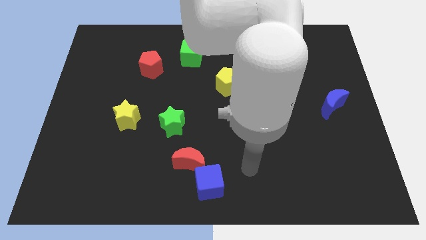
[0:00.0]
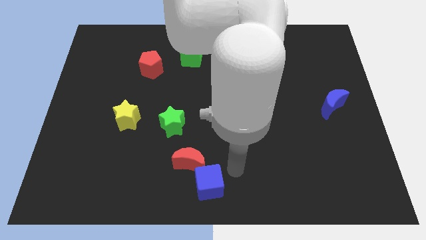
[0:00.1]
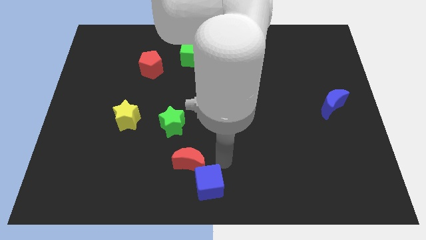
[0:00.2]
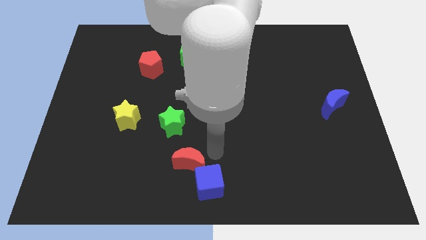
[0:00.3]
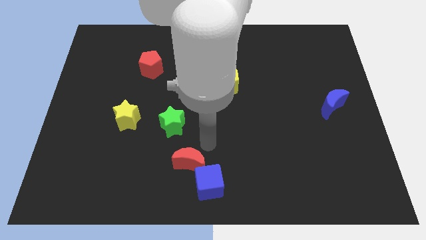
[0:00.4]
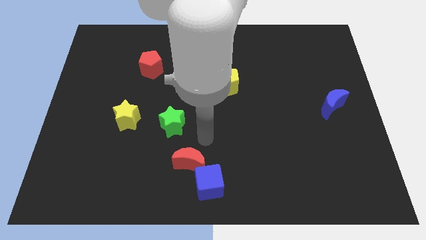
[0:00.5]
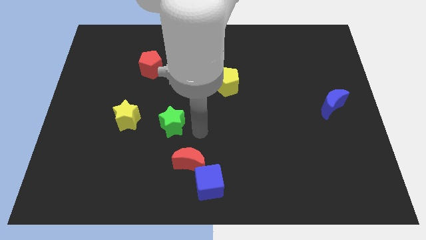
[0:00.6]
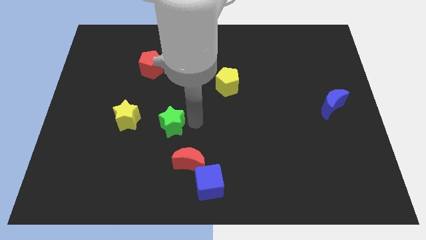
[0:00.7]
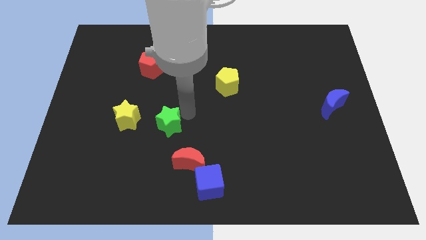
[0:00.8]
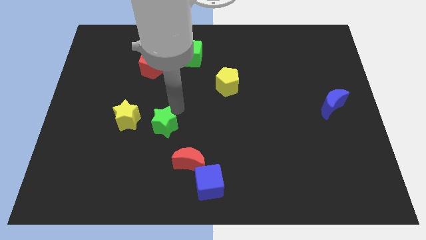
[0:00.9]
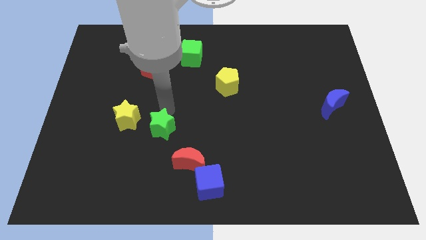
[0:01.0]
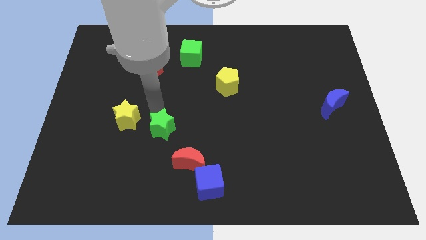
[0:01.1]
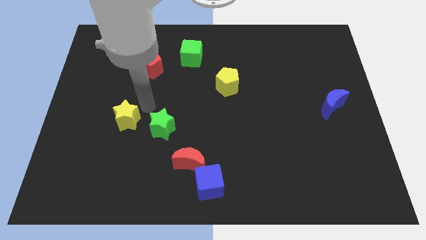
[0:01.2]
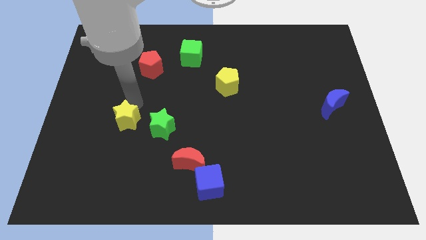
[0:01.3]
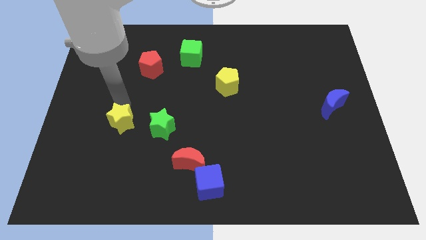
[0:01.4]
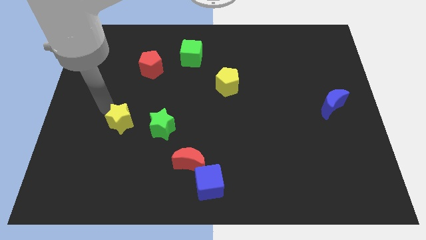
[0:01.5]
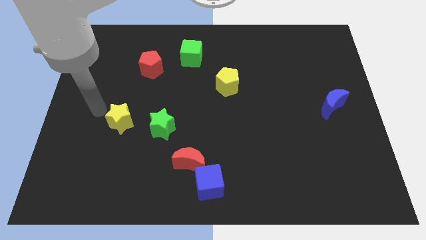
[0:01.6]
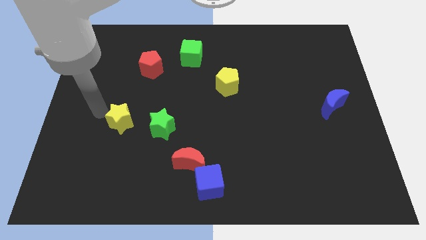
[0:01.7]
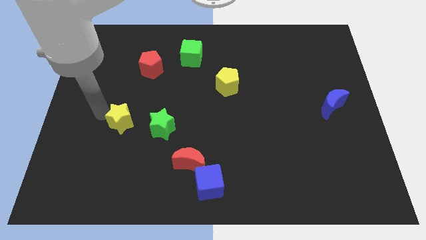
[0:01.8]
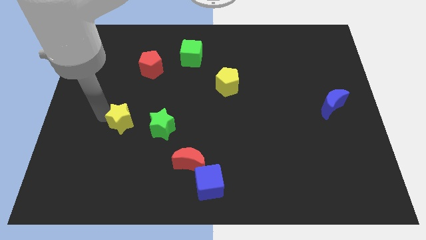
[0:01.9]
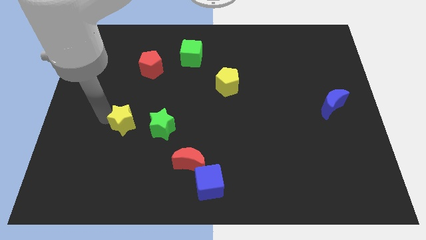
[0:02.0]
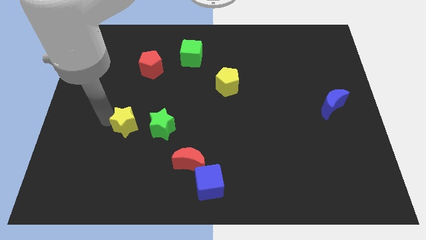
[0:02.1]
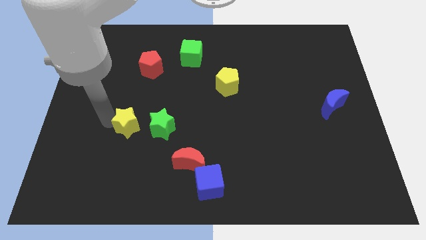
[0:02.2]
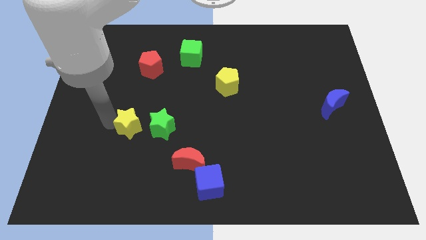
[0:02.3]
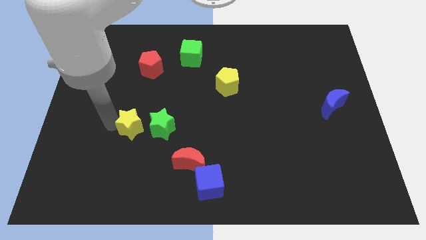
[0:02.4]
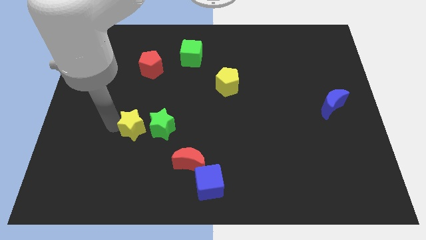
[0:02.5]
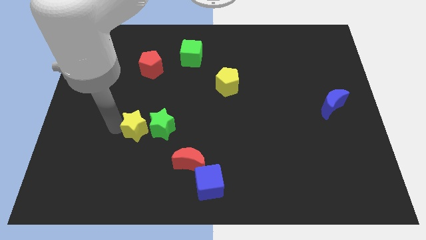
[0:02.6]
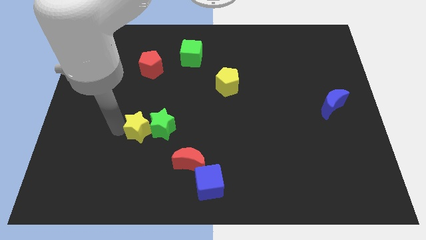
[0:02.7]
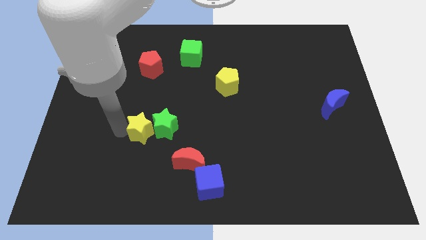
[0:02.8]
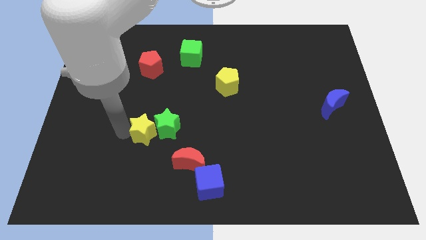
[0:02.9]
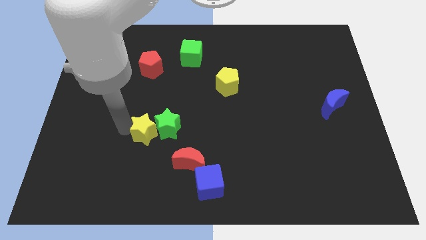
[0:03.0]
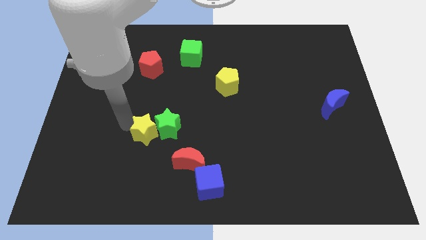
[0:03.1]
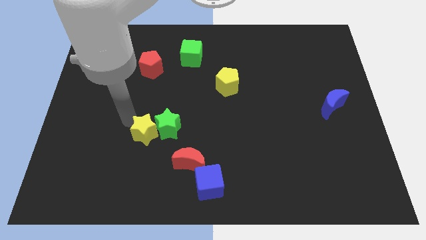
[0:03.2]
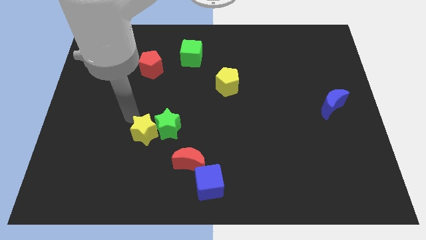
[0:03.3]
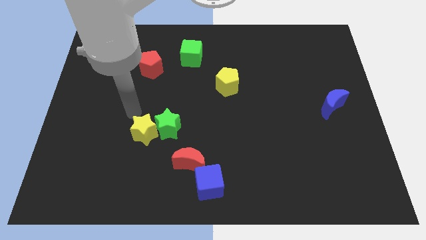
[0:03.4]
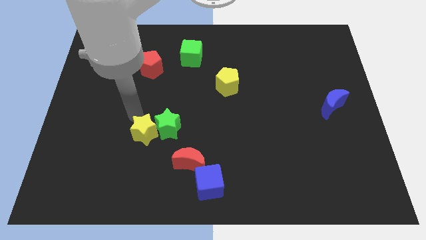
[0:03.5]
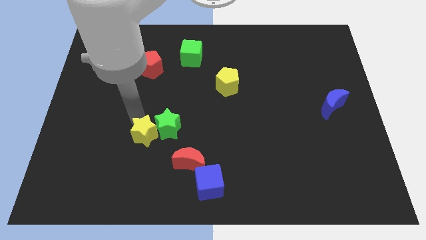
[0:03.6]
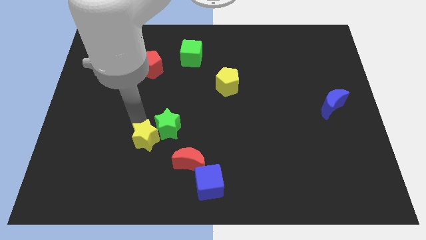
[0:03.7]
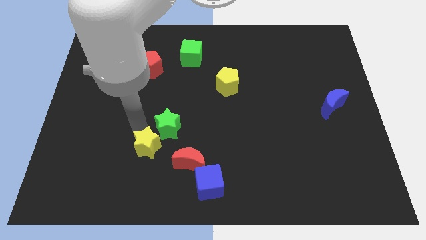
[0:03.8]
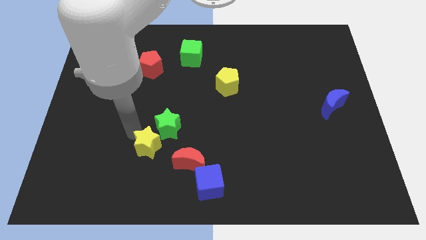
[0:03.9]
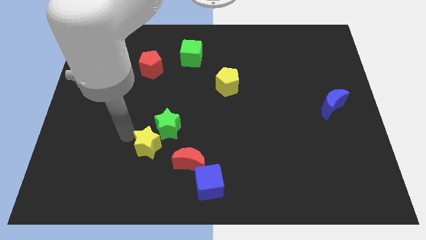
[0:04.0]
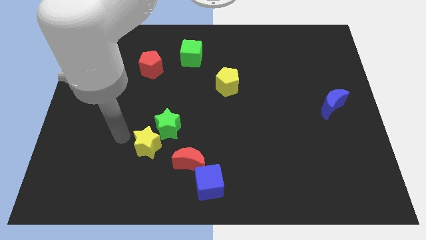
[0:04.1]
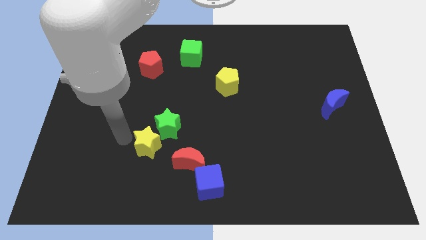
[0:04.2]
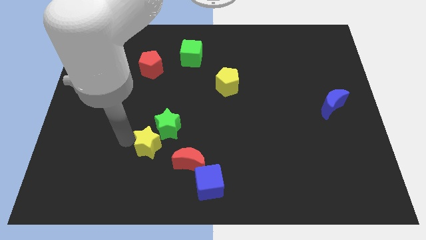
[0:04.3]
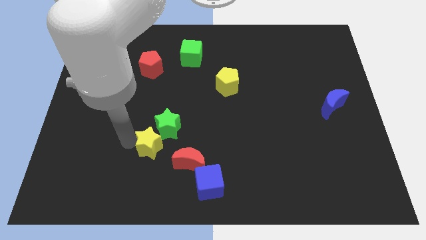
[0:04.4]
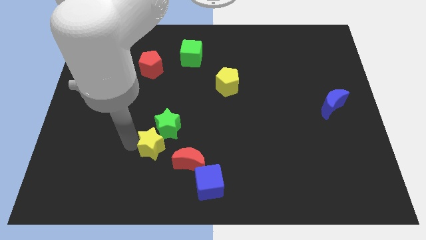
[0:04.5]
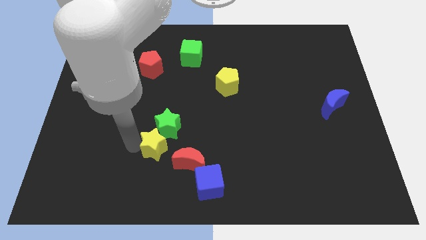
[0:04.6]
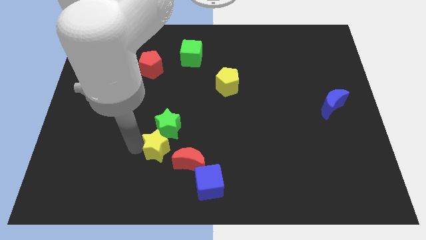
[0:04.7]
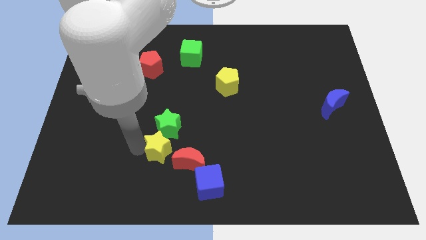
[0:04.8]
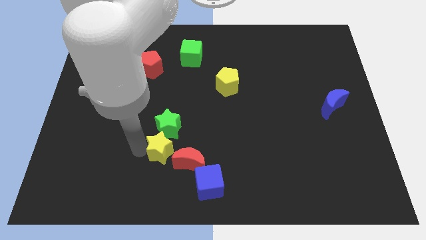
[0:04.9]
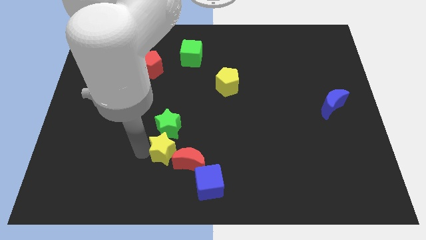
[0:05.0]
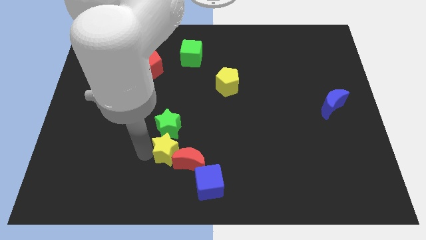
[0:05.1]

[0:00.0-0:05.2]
move the yellow star next to the red moon

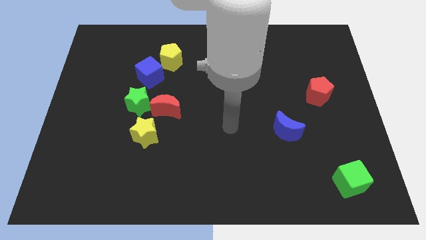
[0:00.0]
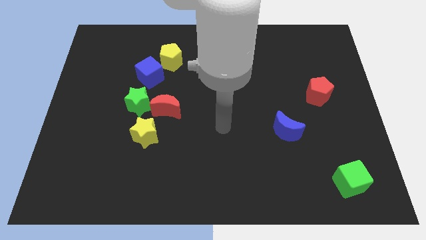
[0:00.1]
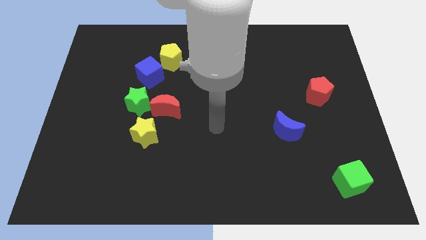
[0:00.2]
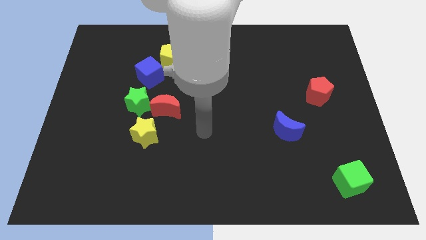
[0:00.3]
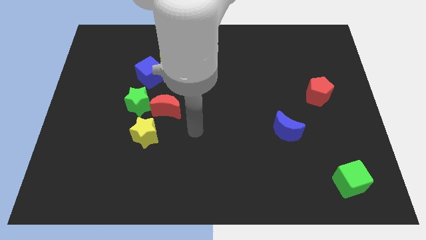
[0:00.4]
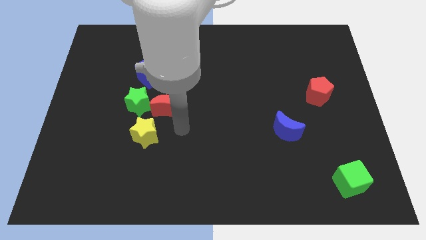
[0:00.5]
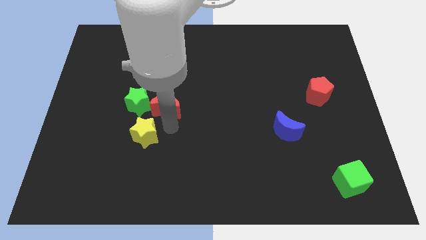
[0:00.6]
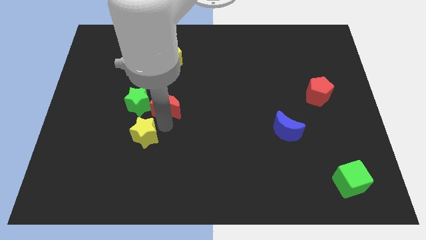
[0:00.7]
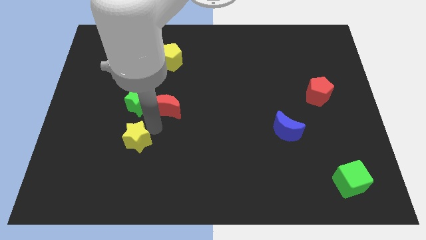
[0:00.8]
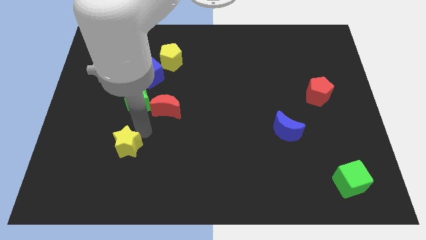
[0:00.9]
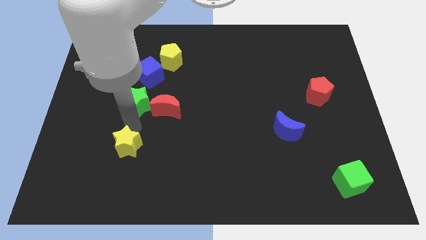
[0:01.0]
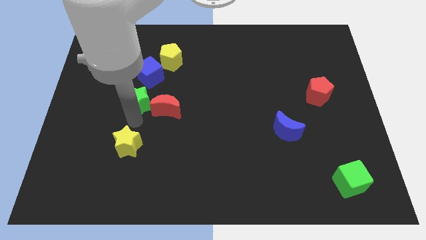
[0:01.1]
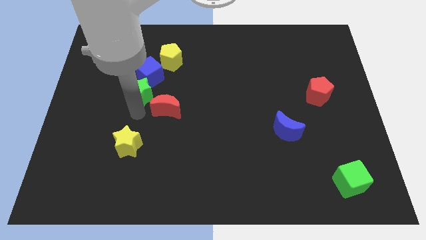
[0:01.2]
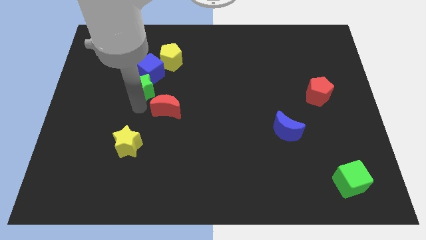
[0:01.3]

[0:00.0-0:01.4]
put the green star close to the blue cube
